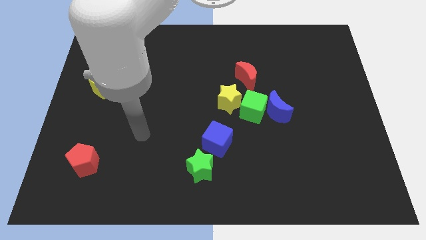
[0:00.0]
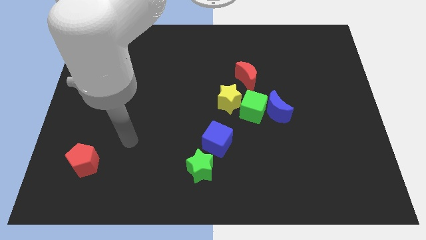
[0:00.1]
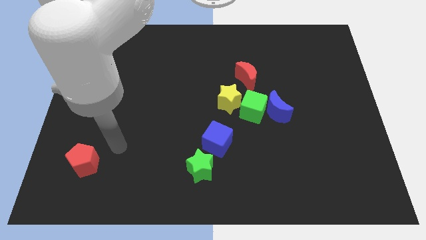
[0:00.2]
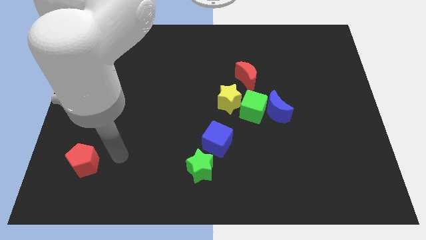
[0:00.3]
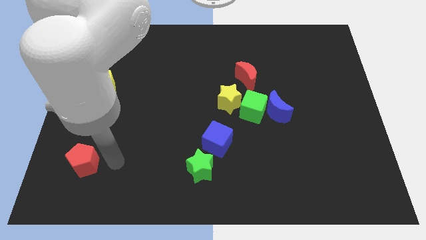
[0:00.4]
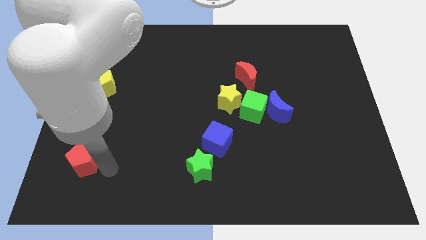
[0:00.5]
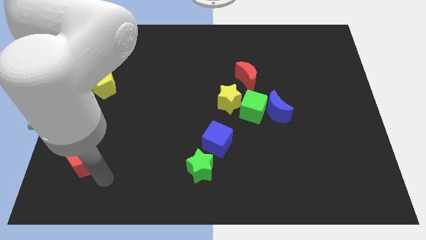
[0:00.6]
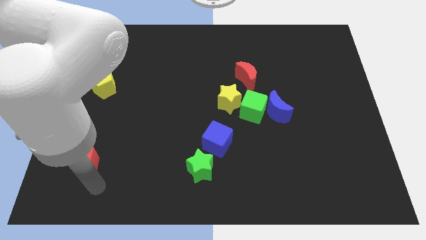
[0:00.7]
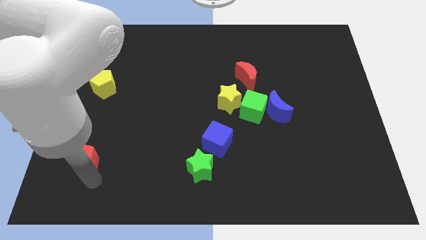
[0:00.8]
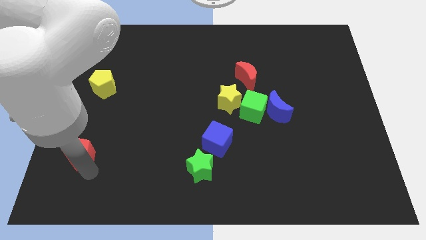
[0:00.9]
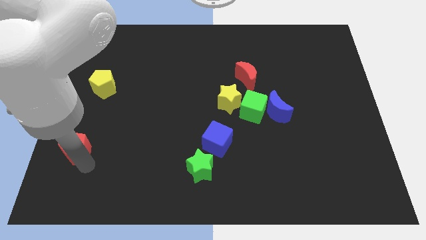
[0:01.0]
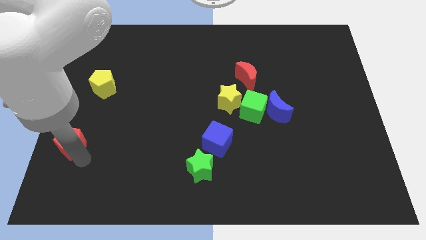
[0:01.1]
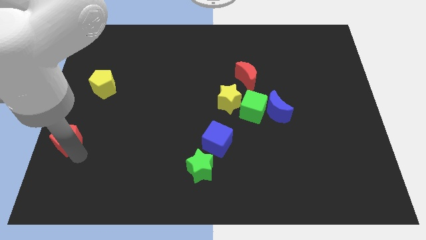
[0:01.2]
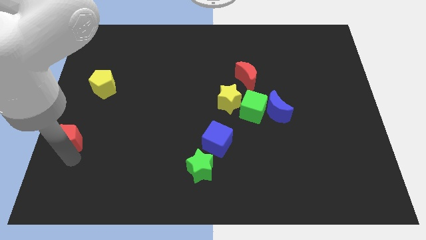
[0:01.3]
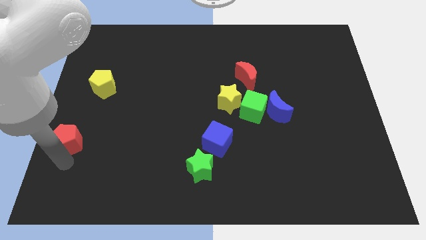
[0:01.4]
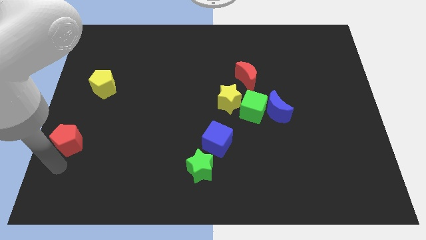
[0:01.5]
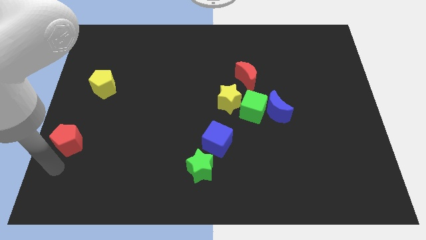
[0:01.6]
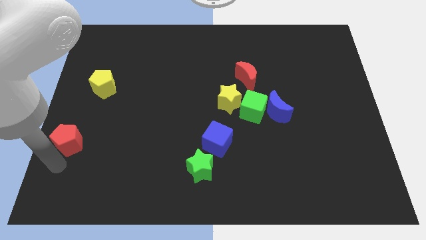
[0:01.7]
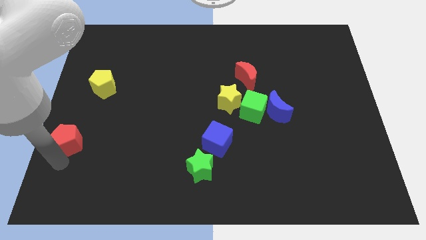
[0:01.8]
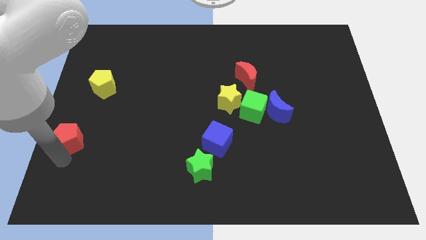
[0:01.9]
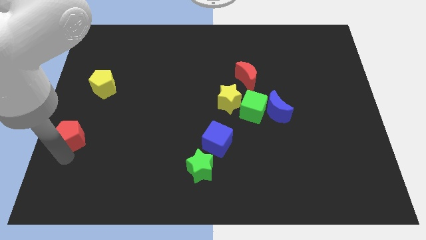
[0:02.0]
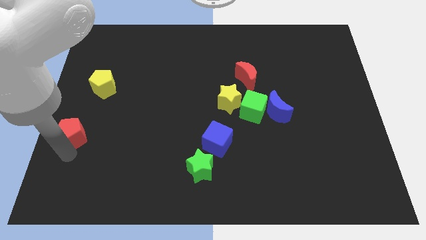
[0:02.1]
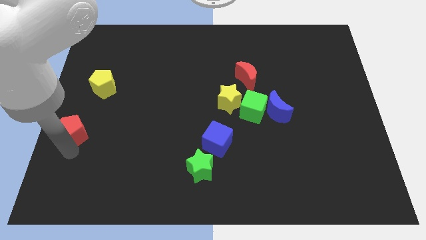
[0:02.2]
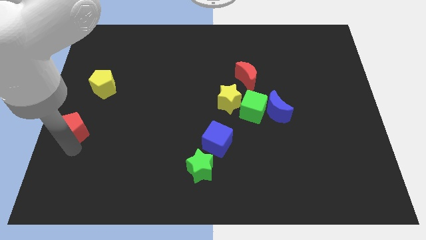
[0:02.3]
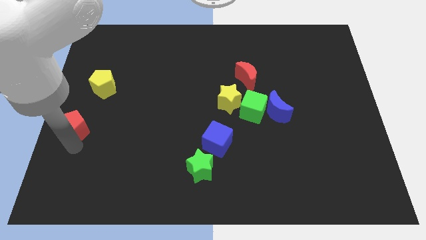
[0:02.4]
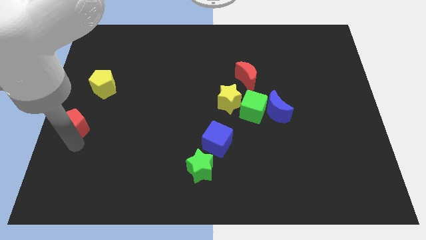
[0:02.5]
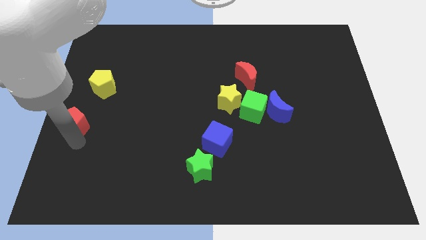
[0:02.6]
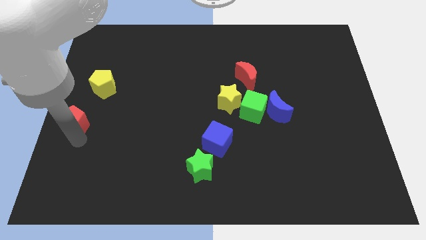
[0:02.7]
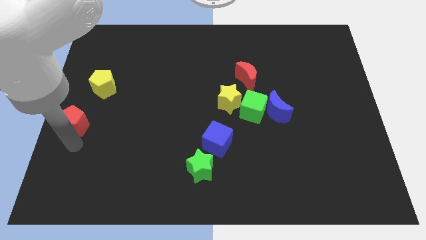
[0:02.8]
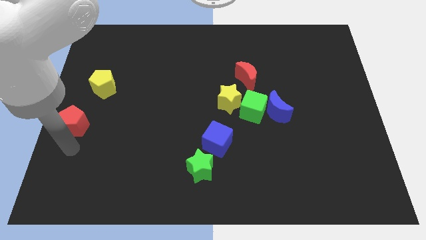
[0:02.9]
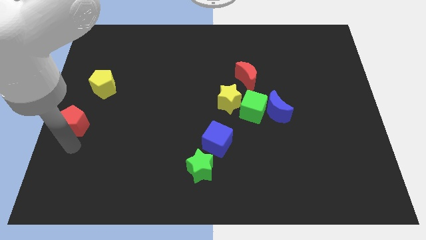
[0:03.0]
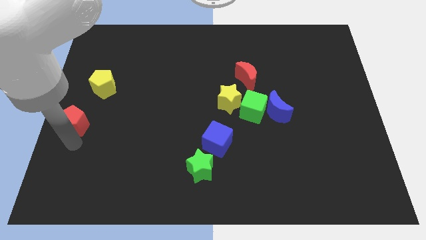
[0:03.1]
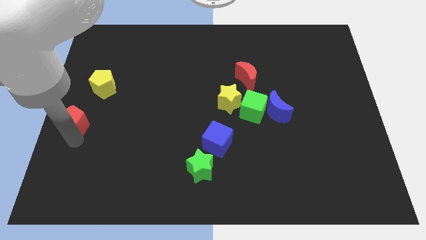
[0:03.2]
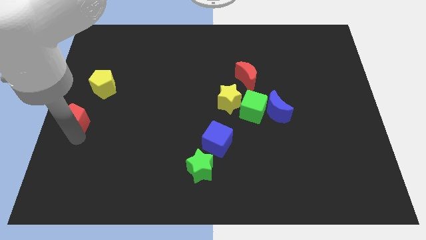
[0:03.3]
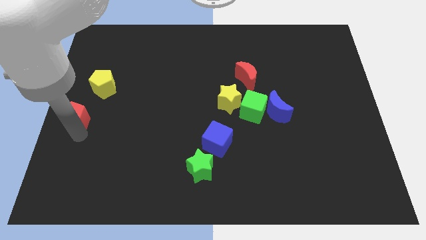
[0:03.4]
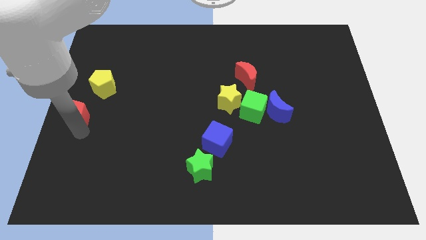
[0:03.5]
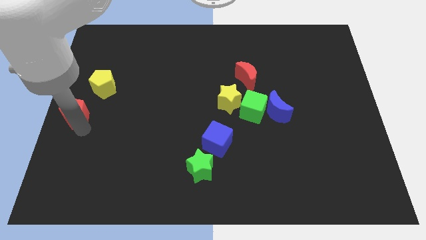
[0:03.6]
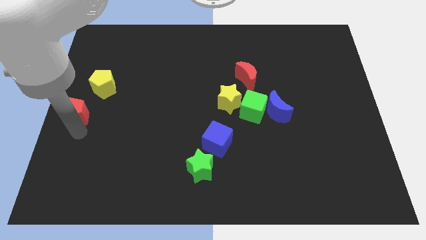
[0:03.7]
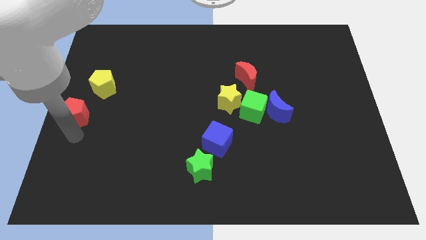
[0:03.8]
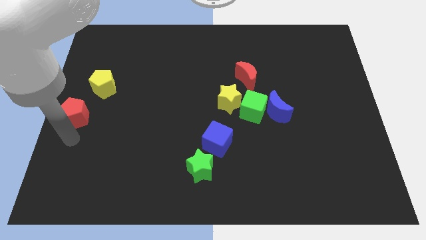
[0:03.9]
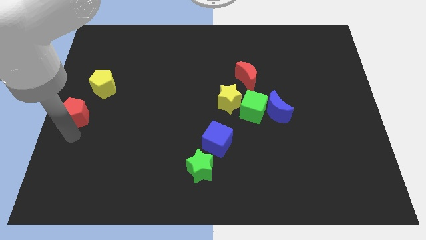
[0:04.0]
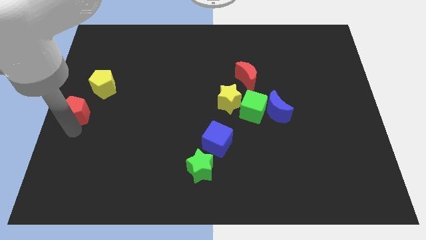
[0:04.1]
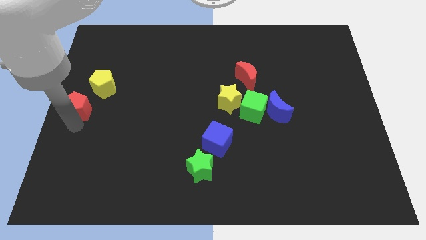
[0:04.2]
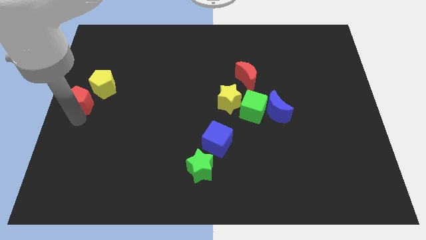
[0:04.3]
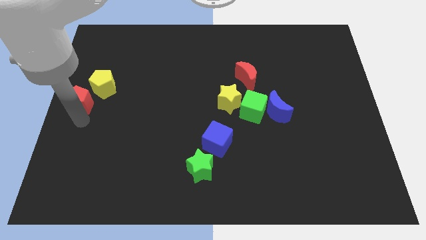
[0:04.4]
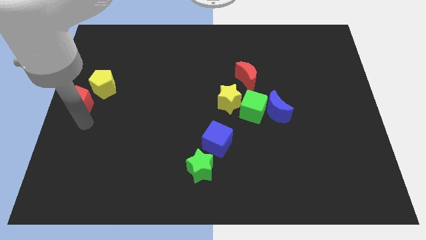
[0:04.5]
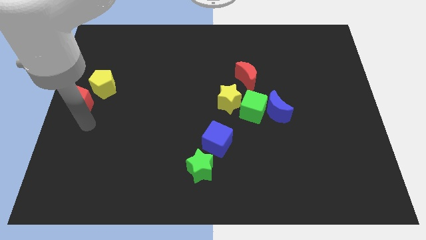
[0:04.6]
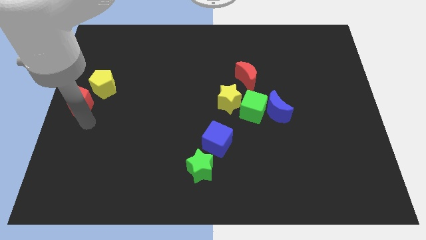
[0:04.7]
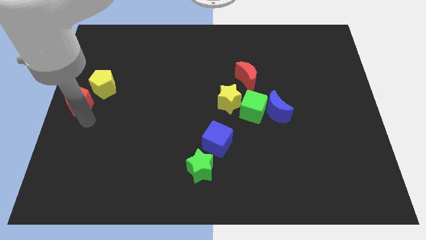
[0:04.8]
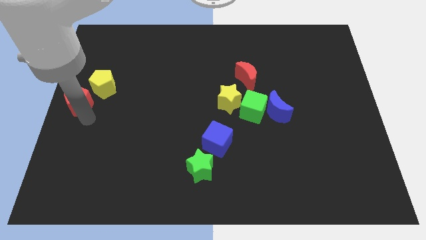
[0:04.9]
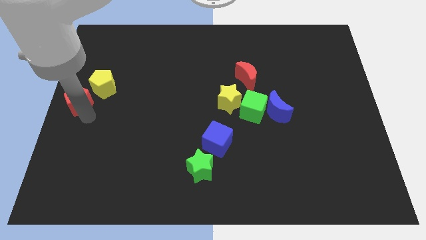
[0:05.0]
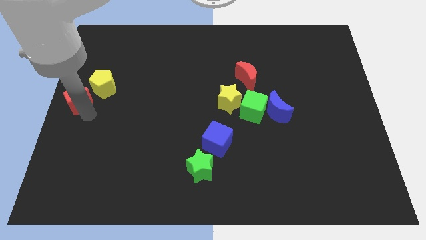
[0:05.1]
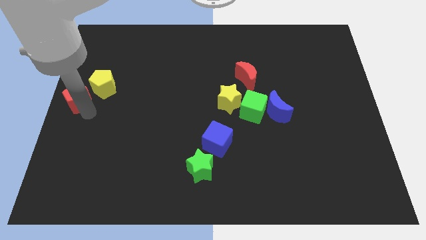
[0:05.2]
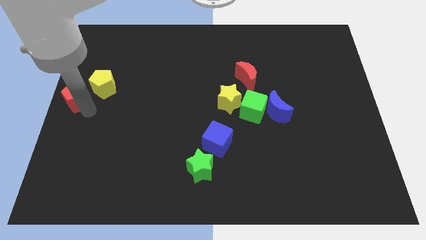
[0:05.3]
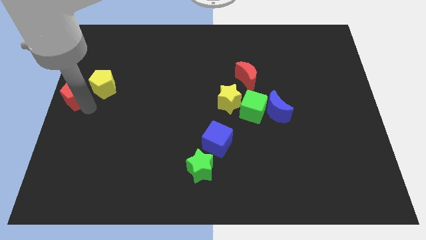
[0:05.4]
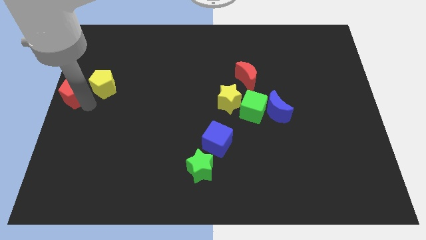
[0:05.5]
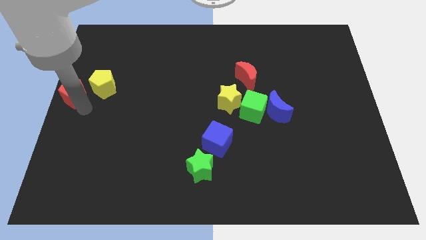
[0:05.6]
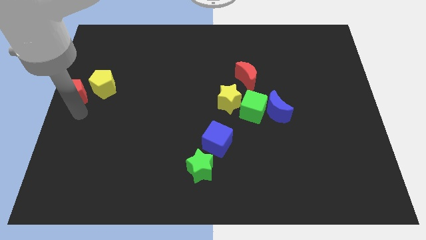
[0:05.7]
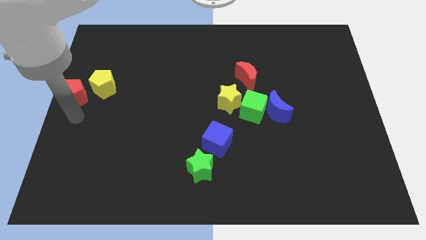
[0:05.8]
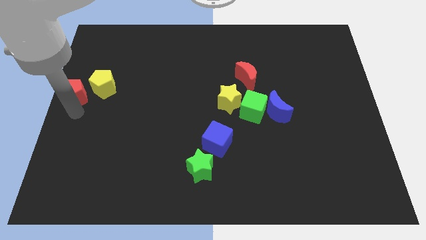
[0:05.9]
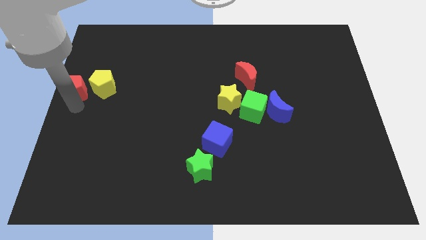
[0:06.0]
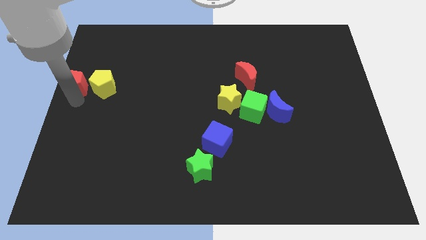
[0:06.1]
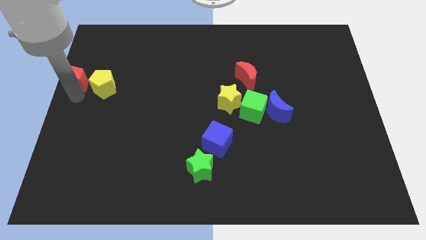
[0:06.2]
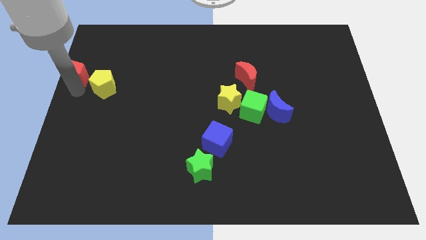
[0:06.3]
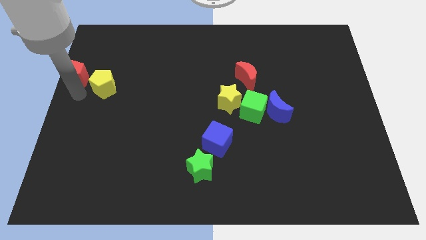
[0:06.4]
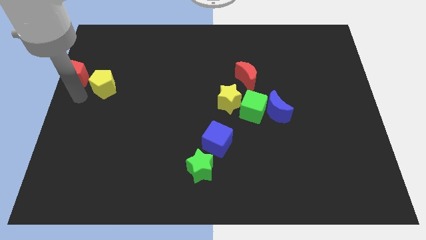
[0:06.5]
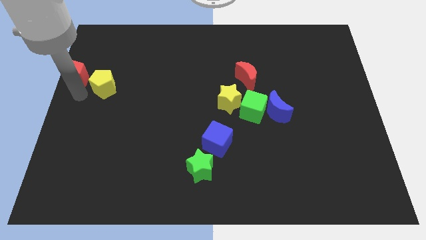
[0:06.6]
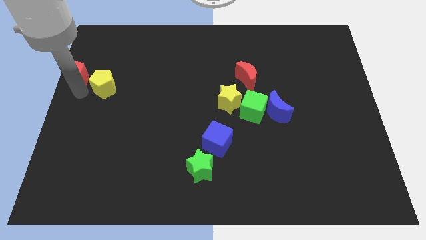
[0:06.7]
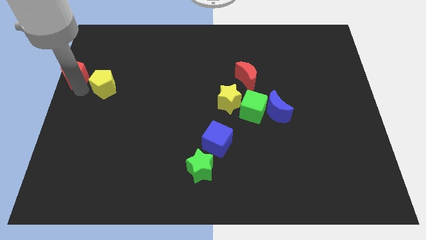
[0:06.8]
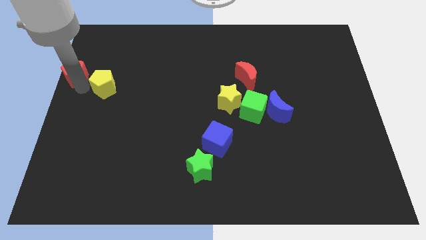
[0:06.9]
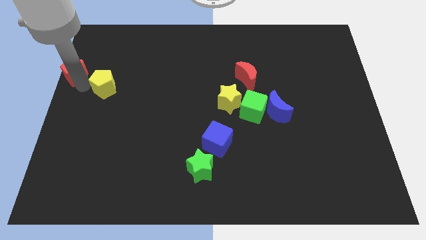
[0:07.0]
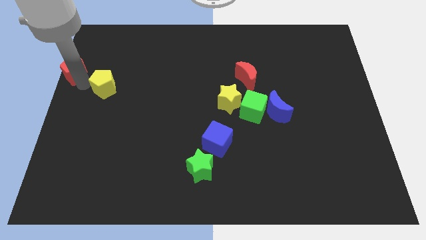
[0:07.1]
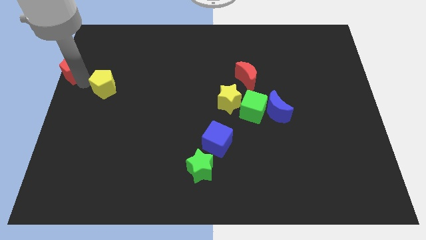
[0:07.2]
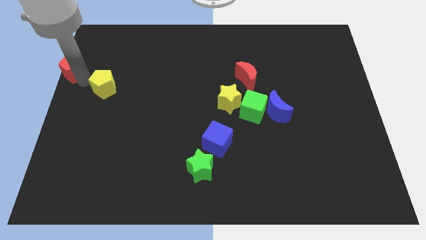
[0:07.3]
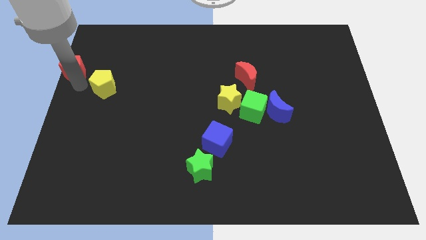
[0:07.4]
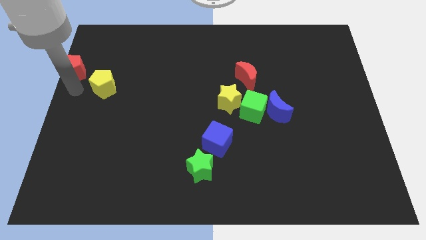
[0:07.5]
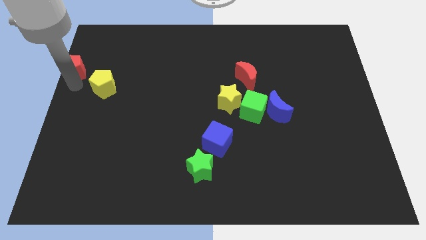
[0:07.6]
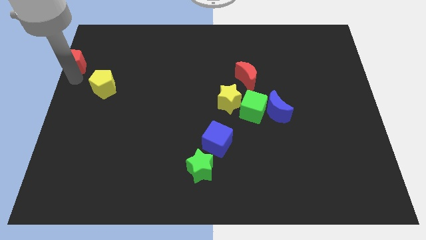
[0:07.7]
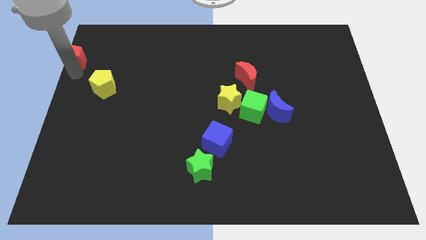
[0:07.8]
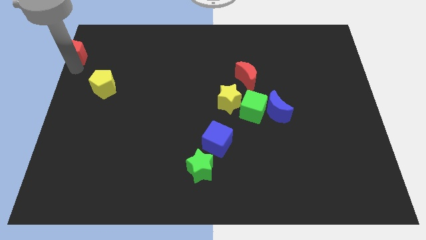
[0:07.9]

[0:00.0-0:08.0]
slide the red pentagon to the top left of the board
